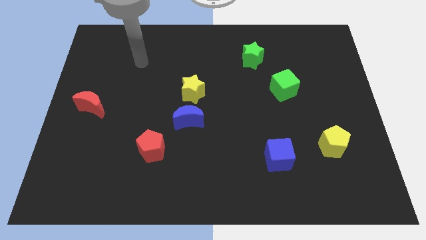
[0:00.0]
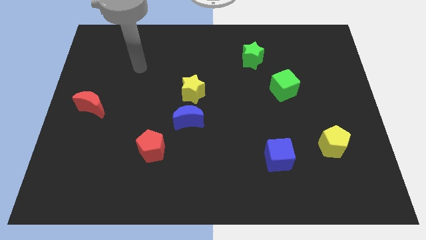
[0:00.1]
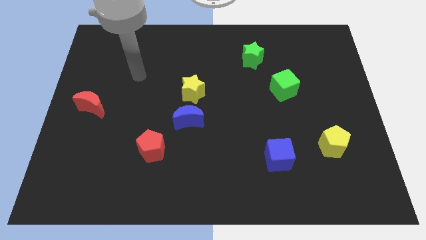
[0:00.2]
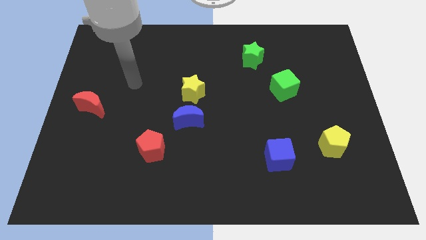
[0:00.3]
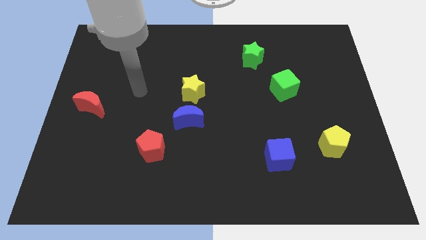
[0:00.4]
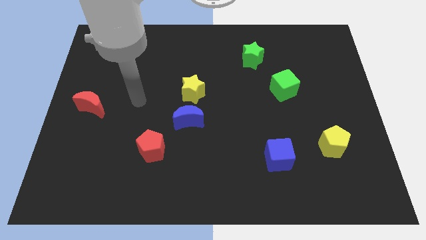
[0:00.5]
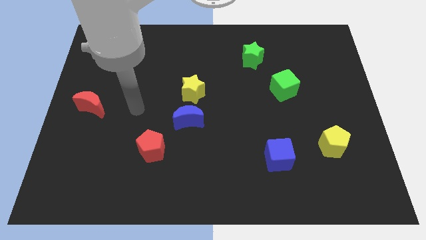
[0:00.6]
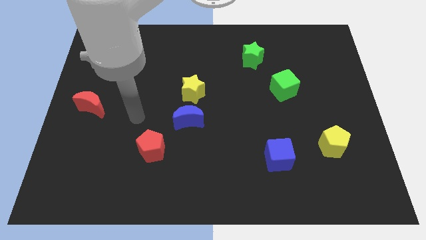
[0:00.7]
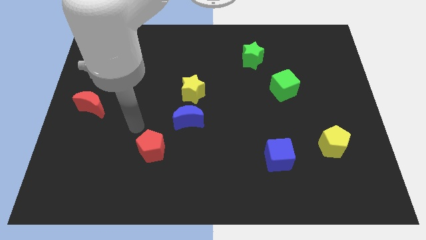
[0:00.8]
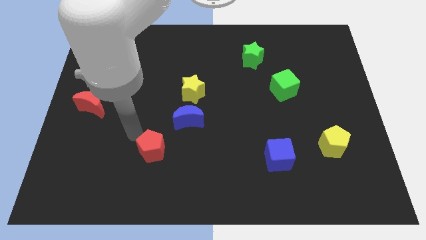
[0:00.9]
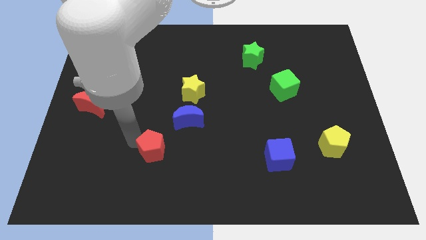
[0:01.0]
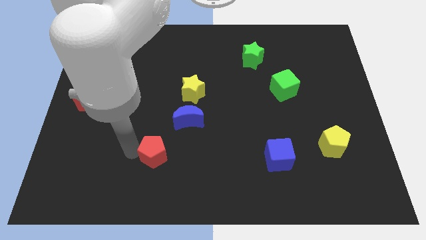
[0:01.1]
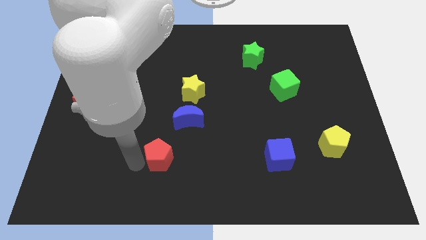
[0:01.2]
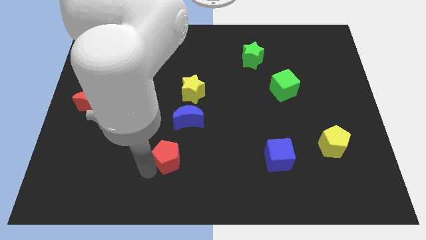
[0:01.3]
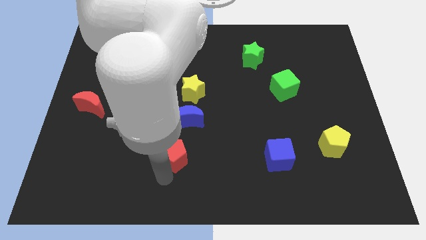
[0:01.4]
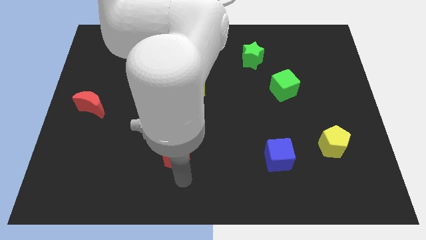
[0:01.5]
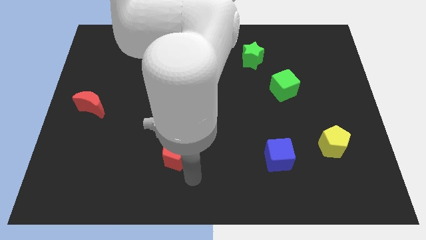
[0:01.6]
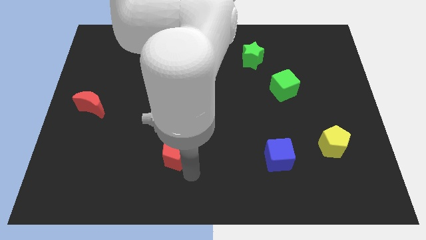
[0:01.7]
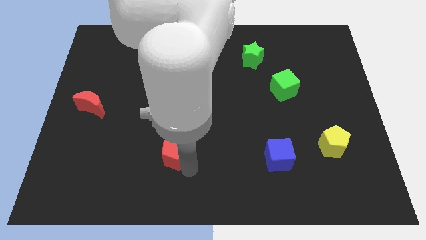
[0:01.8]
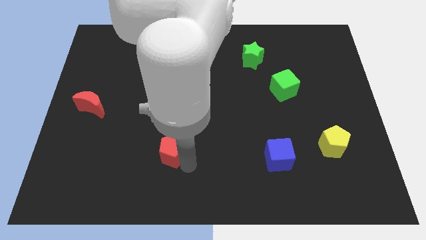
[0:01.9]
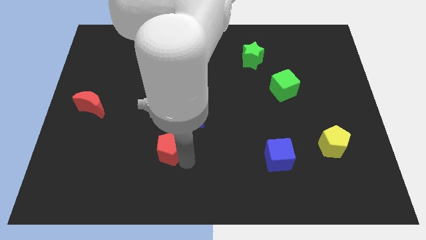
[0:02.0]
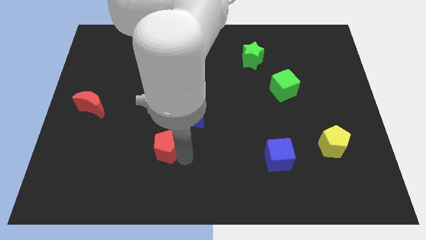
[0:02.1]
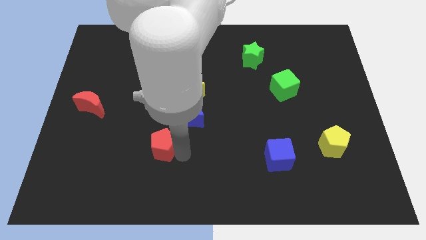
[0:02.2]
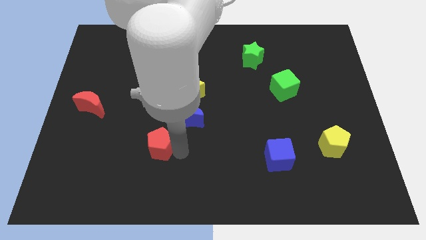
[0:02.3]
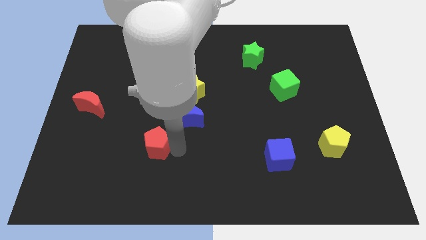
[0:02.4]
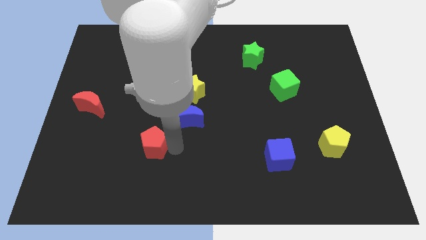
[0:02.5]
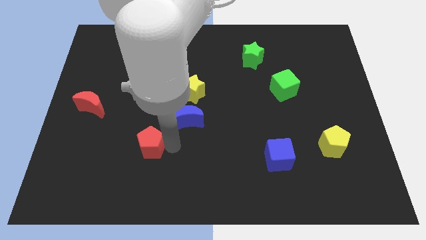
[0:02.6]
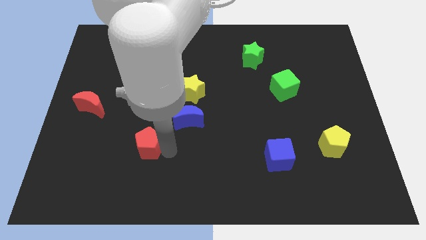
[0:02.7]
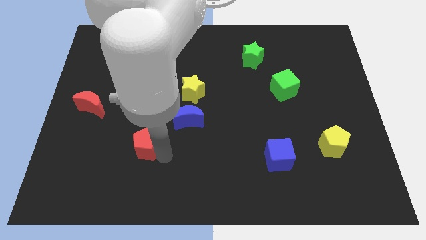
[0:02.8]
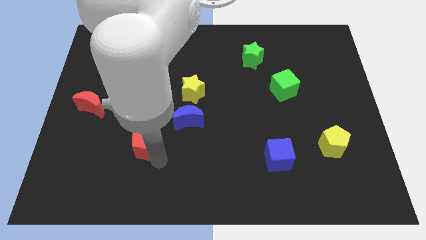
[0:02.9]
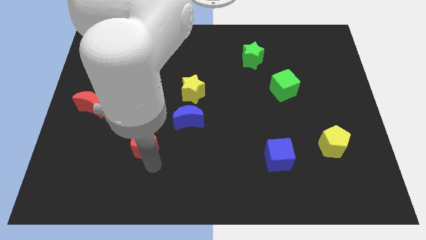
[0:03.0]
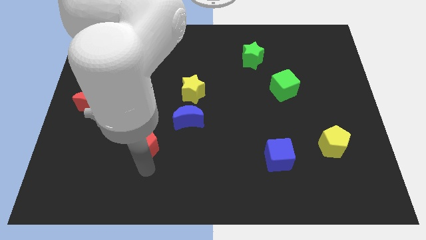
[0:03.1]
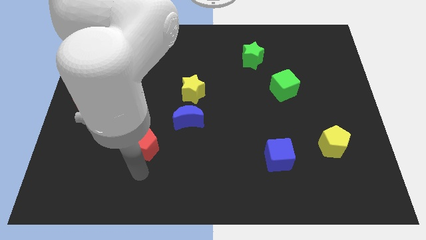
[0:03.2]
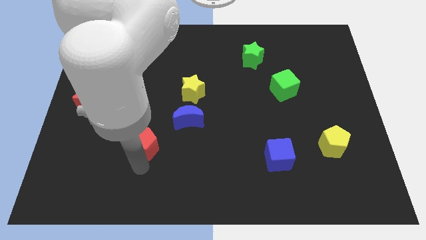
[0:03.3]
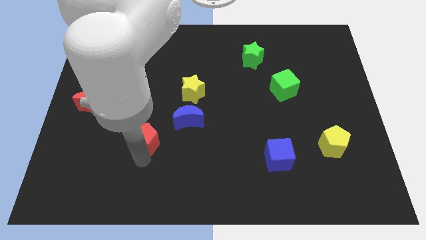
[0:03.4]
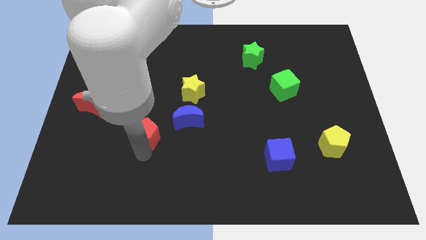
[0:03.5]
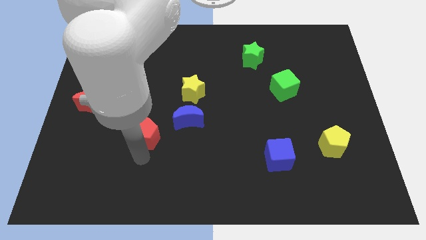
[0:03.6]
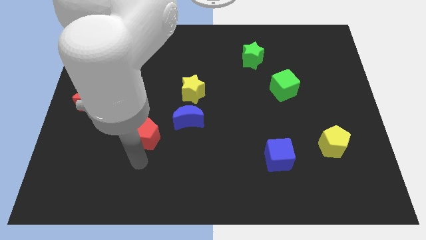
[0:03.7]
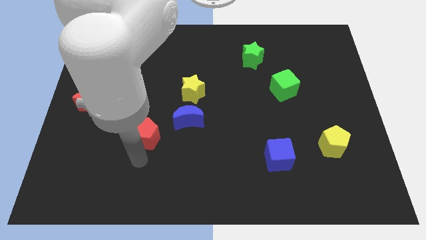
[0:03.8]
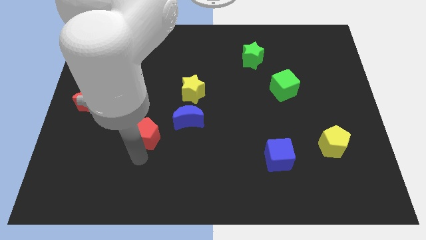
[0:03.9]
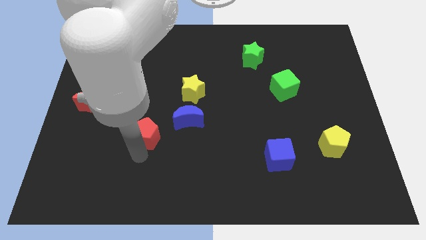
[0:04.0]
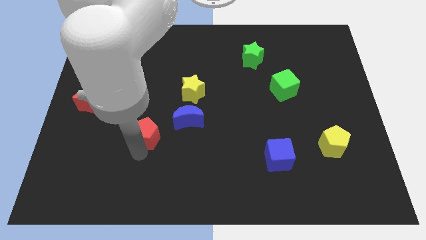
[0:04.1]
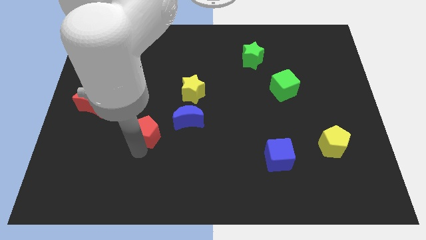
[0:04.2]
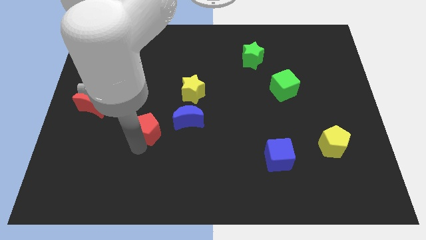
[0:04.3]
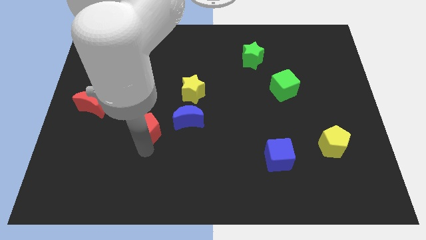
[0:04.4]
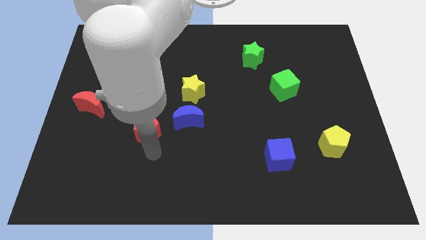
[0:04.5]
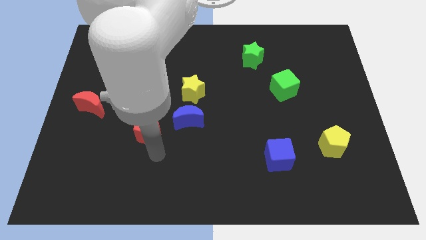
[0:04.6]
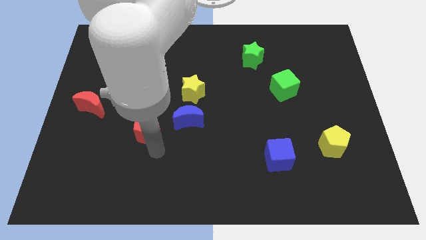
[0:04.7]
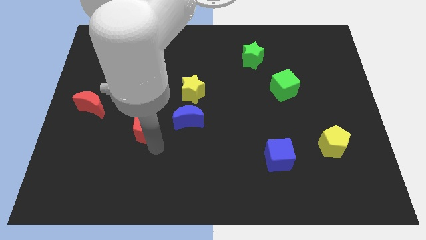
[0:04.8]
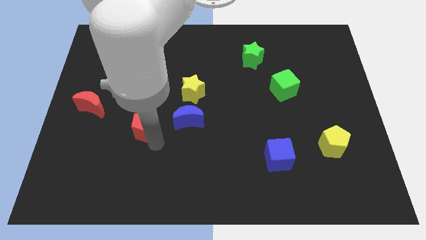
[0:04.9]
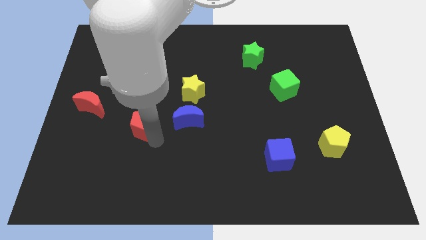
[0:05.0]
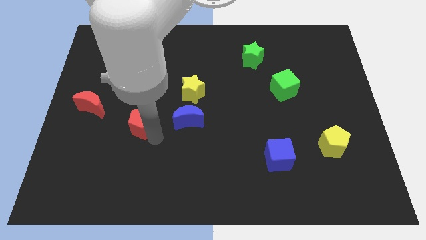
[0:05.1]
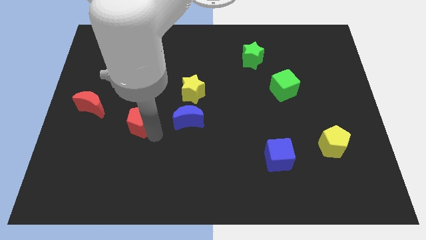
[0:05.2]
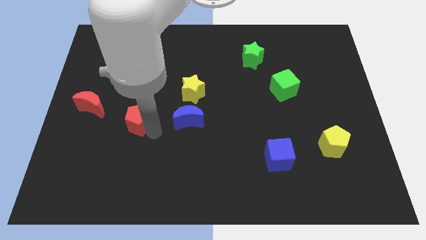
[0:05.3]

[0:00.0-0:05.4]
move the red pentagon to the right of the red moon

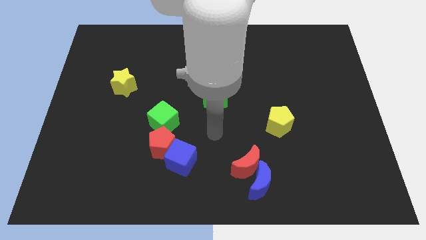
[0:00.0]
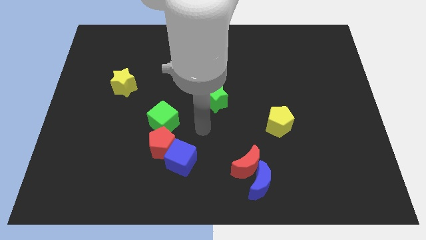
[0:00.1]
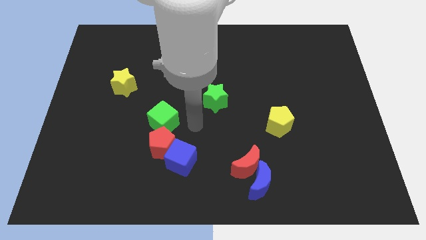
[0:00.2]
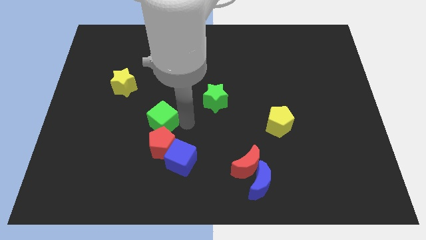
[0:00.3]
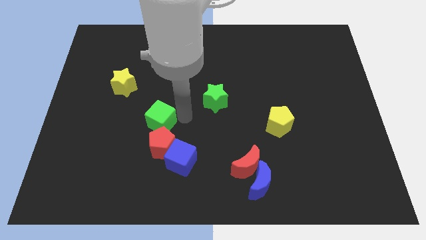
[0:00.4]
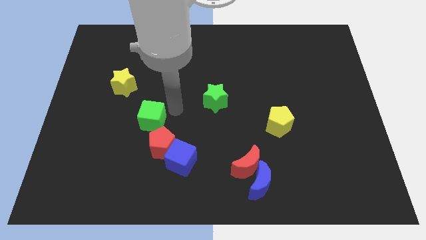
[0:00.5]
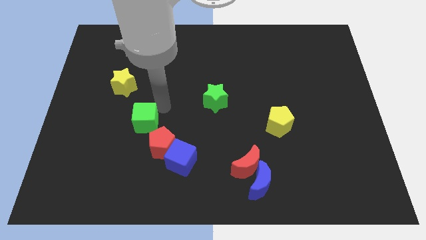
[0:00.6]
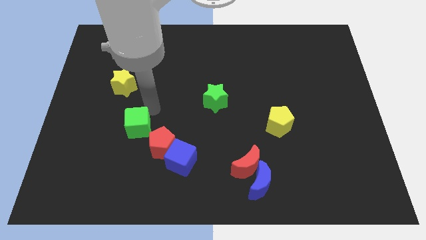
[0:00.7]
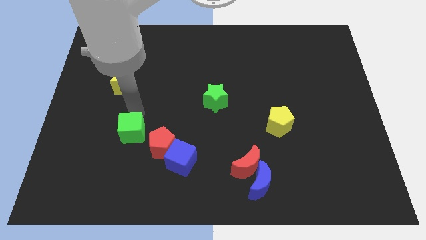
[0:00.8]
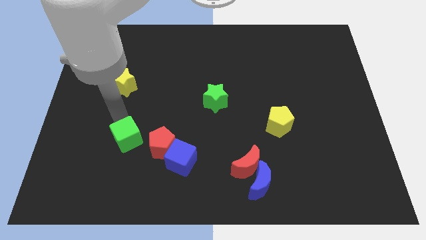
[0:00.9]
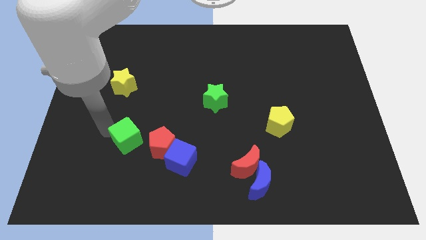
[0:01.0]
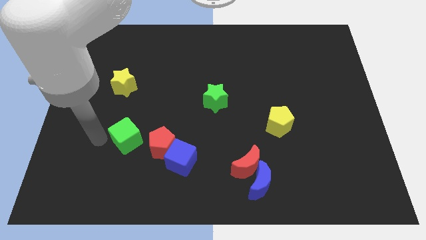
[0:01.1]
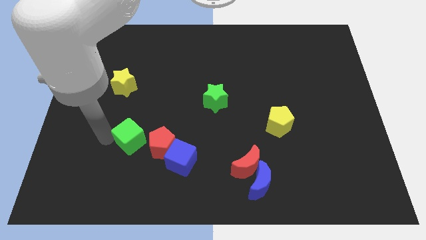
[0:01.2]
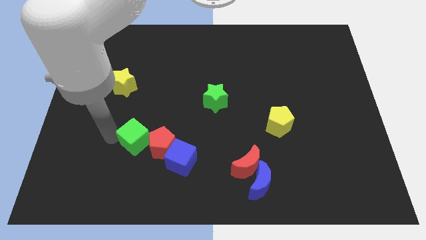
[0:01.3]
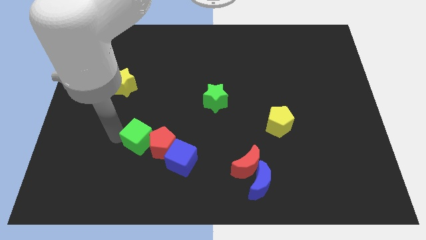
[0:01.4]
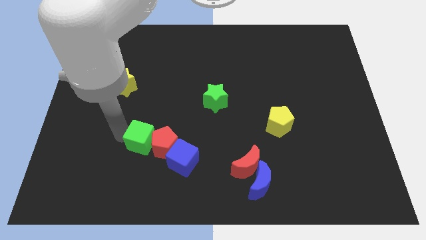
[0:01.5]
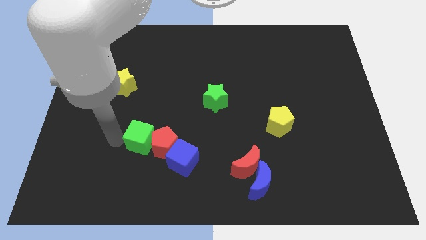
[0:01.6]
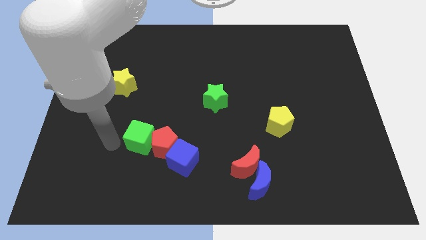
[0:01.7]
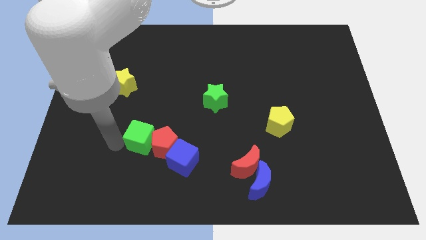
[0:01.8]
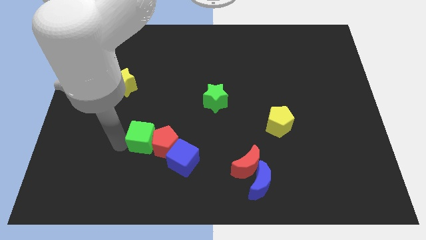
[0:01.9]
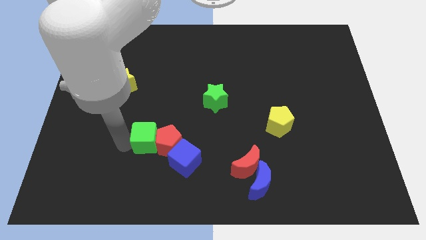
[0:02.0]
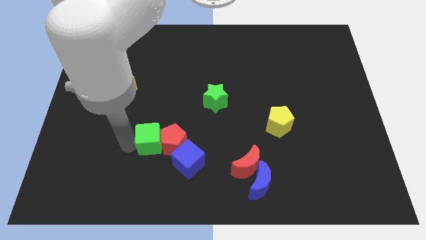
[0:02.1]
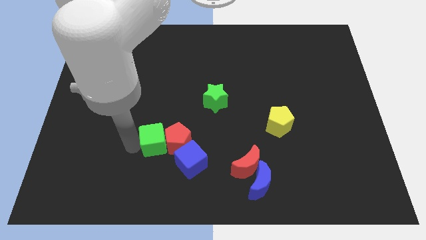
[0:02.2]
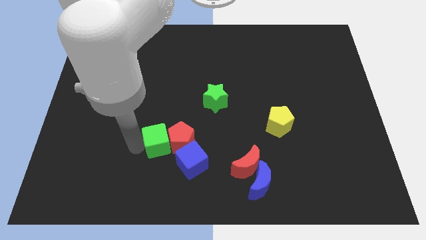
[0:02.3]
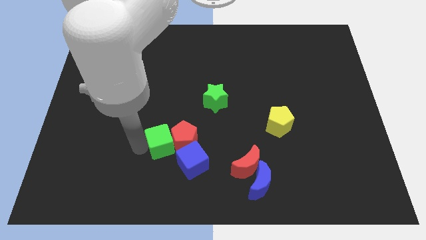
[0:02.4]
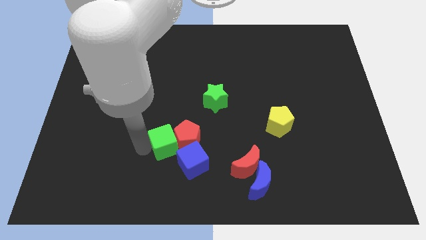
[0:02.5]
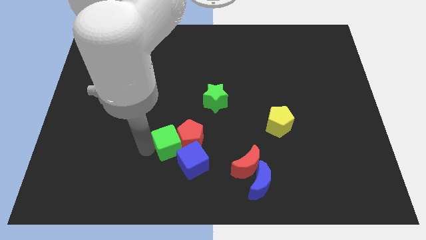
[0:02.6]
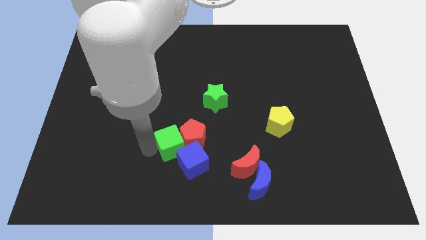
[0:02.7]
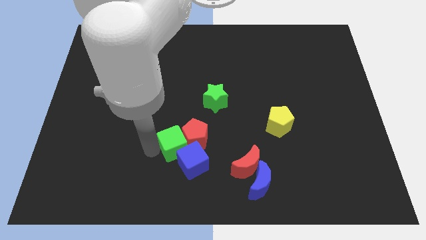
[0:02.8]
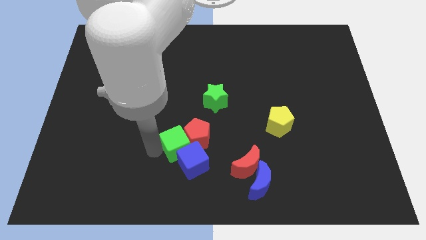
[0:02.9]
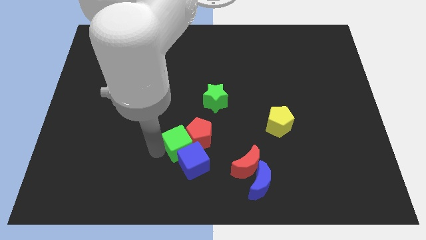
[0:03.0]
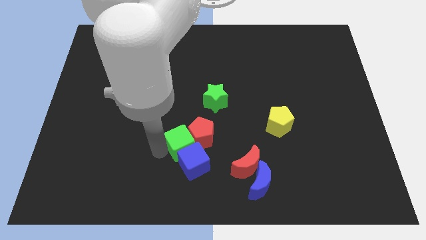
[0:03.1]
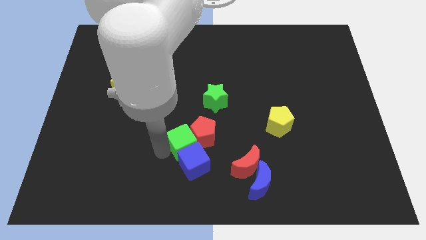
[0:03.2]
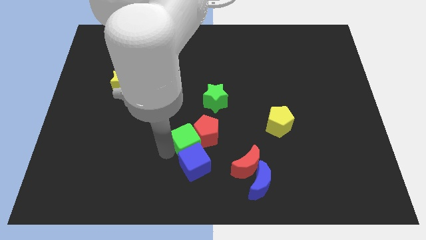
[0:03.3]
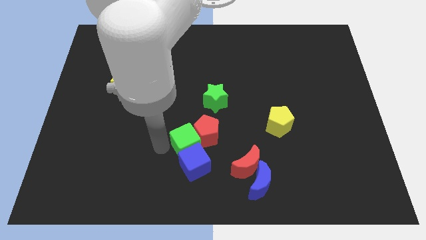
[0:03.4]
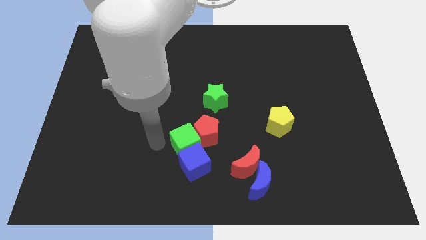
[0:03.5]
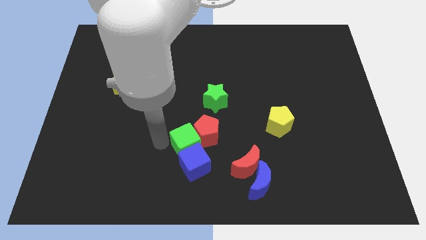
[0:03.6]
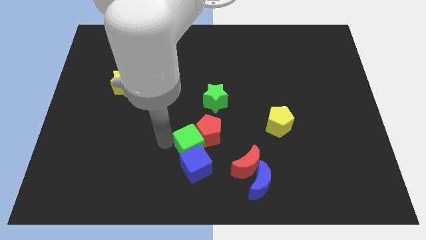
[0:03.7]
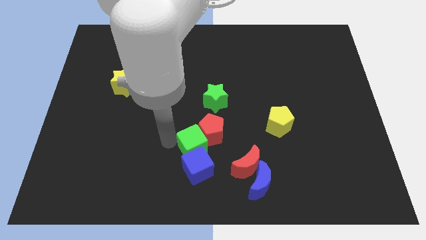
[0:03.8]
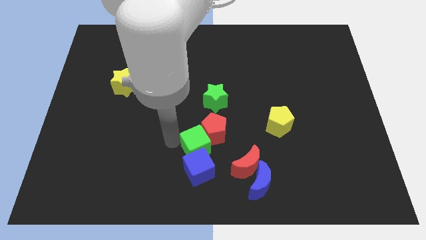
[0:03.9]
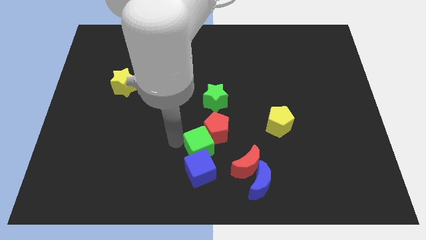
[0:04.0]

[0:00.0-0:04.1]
put the green cube to the top left side of the red moon
